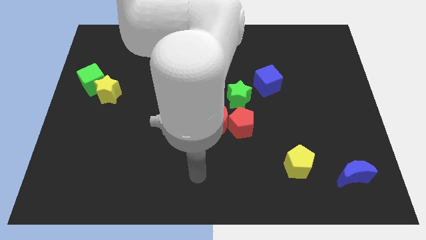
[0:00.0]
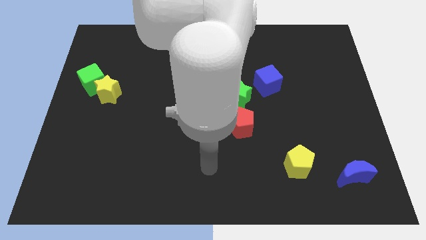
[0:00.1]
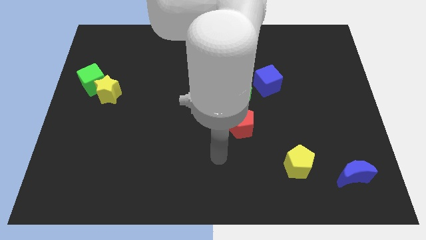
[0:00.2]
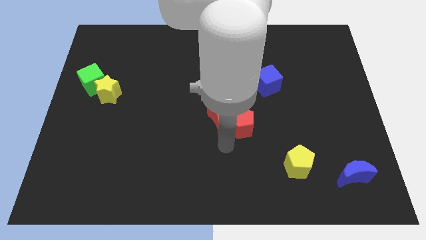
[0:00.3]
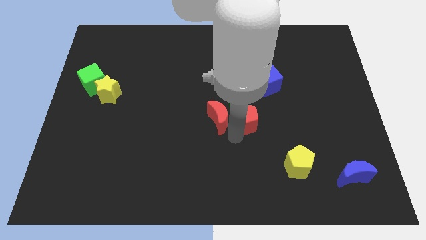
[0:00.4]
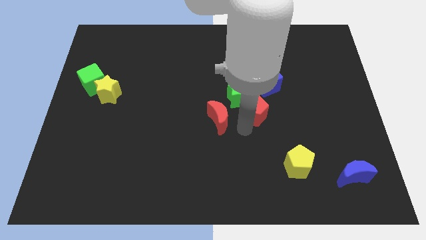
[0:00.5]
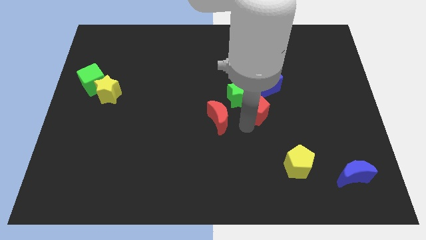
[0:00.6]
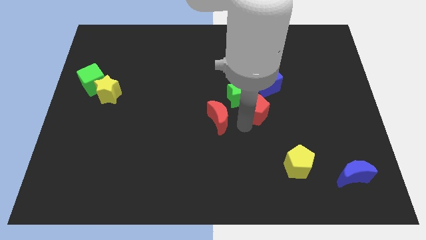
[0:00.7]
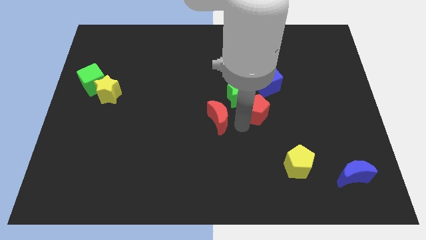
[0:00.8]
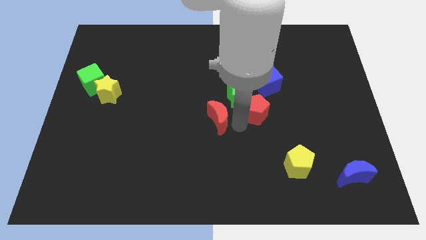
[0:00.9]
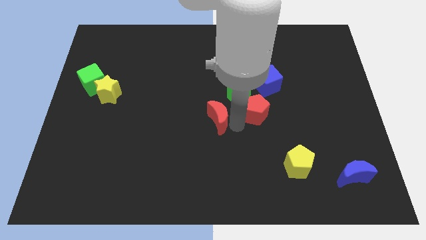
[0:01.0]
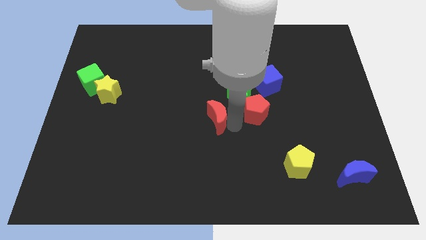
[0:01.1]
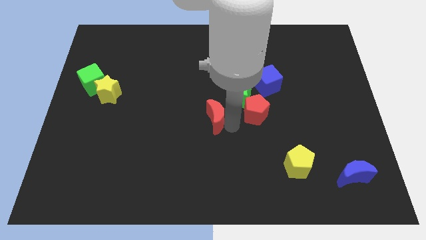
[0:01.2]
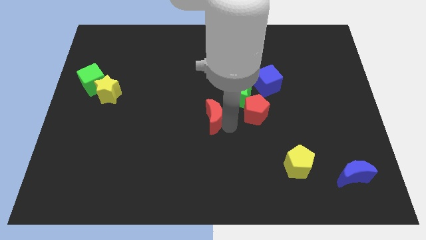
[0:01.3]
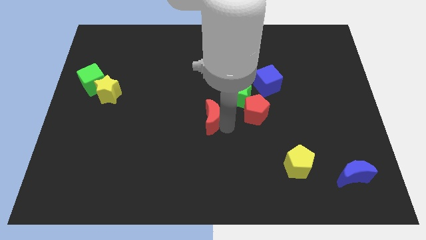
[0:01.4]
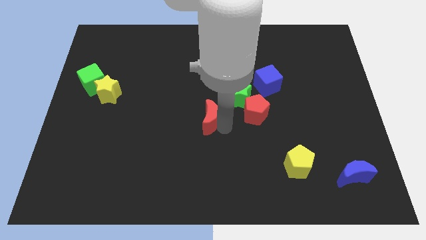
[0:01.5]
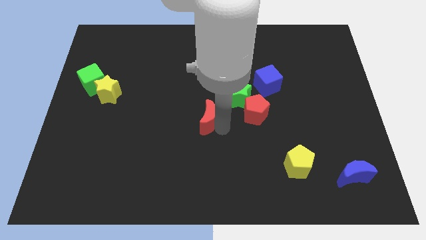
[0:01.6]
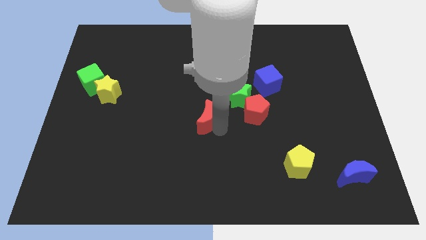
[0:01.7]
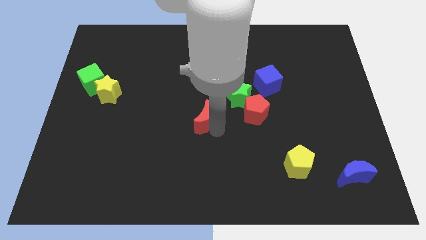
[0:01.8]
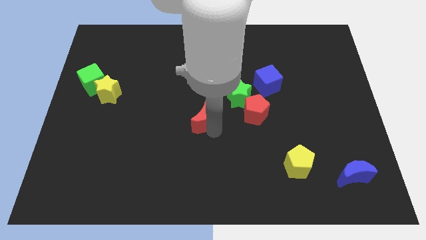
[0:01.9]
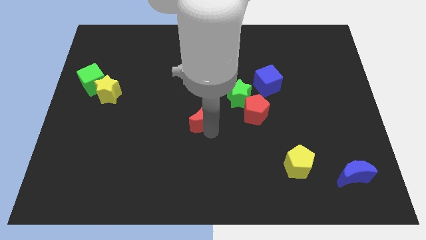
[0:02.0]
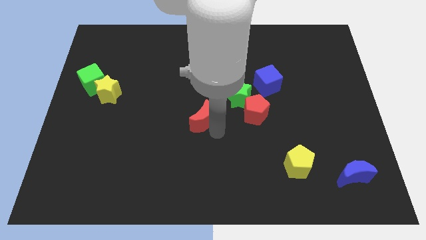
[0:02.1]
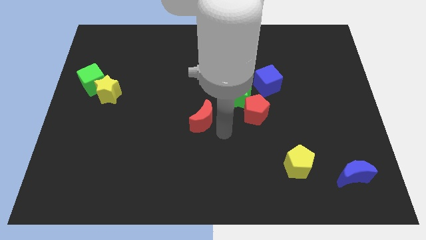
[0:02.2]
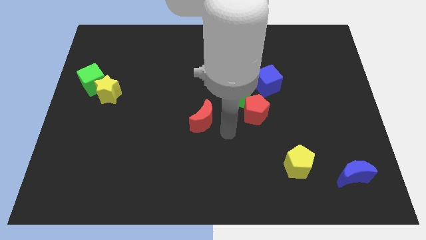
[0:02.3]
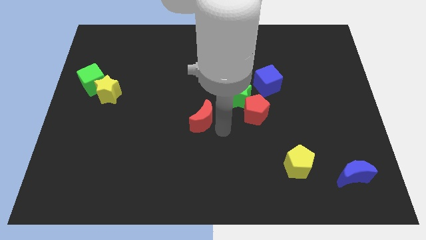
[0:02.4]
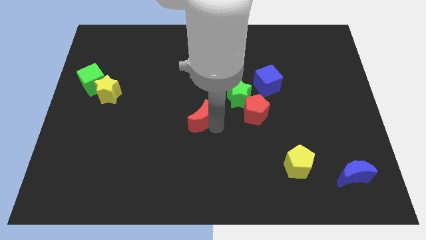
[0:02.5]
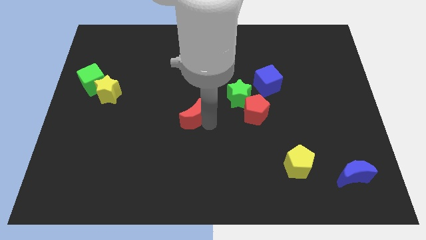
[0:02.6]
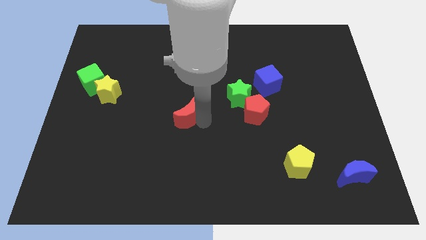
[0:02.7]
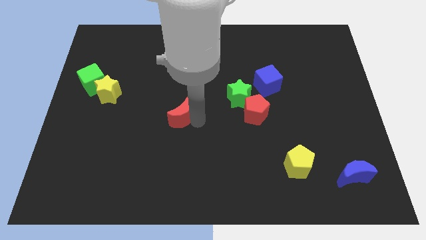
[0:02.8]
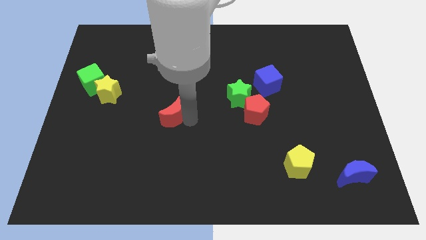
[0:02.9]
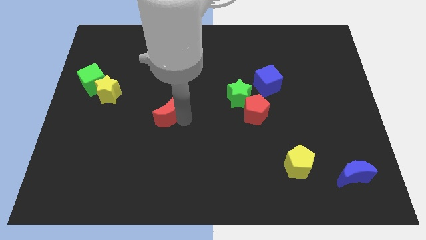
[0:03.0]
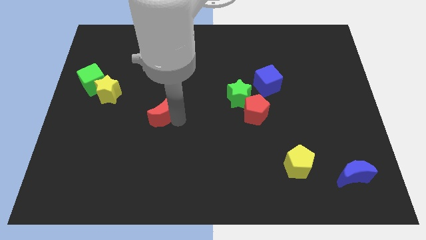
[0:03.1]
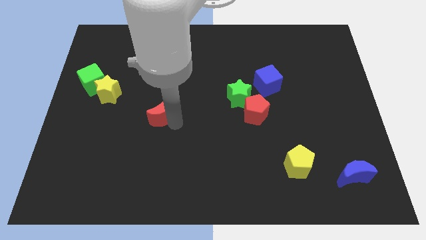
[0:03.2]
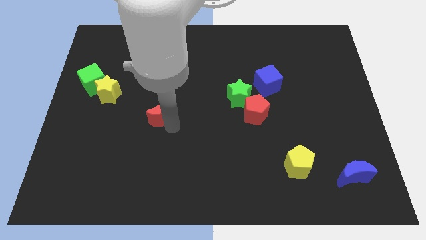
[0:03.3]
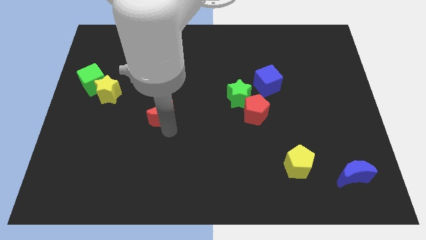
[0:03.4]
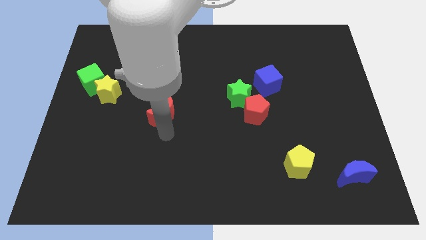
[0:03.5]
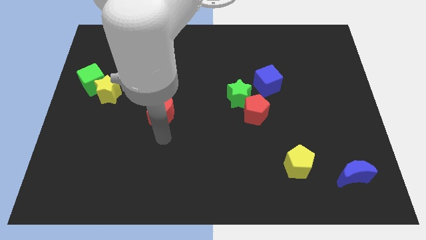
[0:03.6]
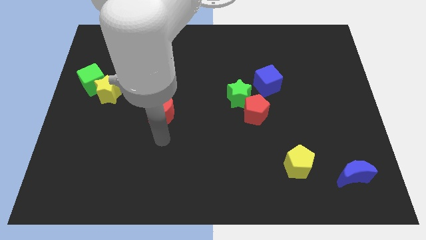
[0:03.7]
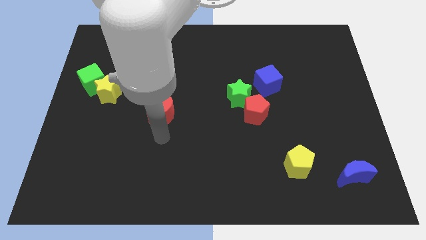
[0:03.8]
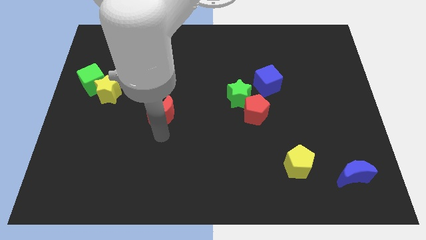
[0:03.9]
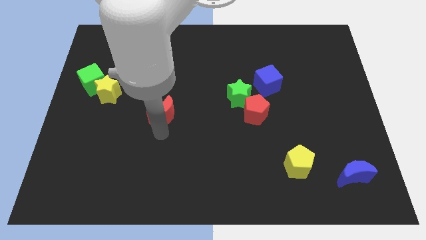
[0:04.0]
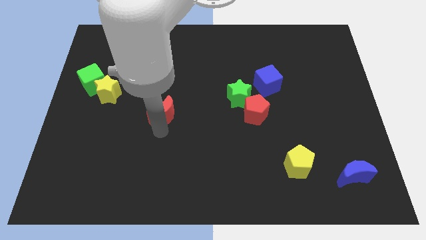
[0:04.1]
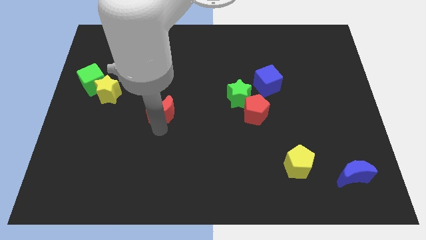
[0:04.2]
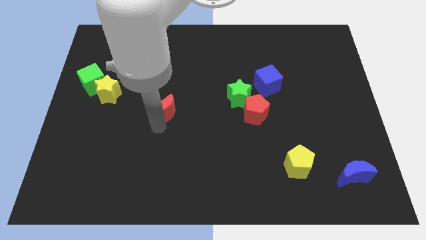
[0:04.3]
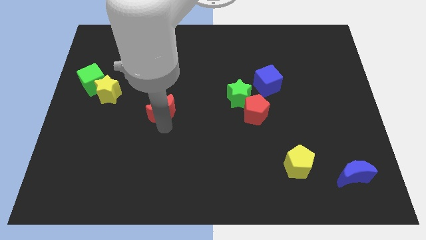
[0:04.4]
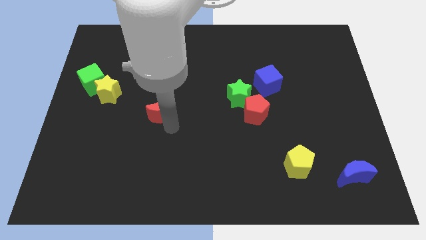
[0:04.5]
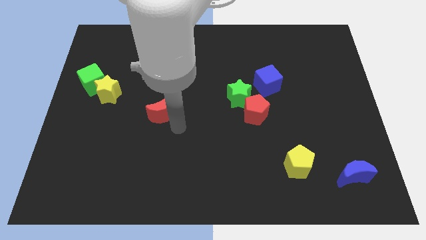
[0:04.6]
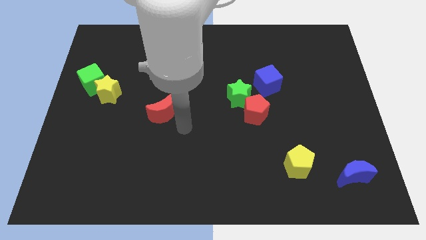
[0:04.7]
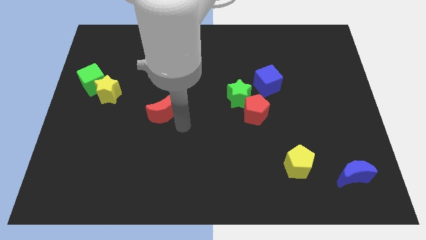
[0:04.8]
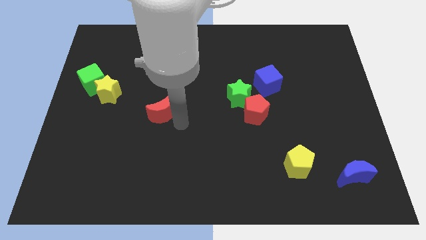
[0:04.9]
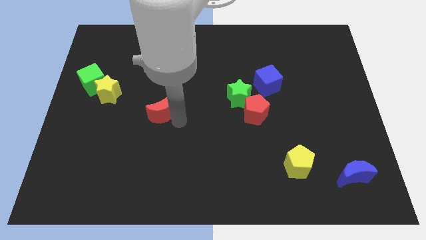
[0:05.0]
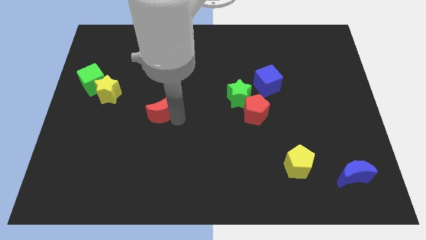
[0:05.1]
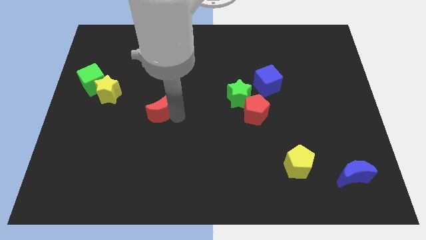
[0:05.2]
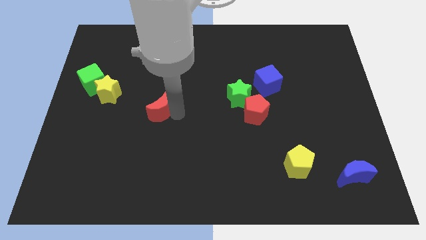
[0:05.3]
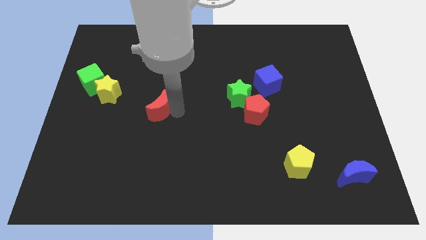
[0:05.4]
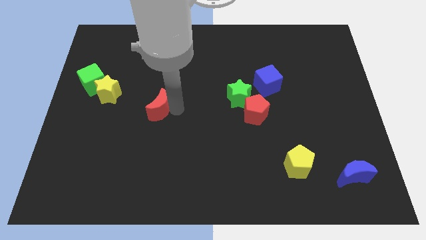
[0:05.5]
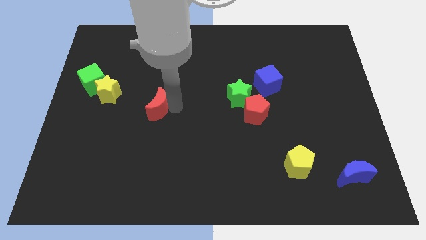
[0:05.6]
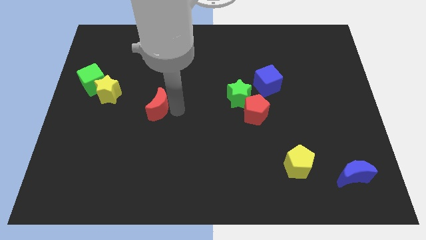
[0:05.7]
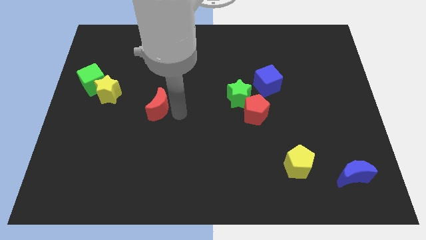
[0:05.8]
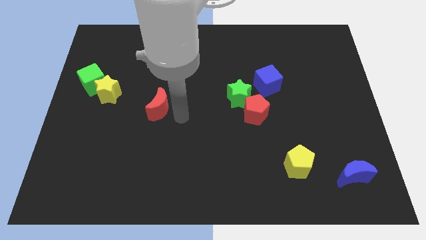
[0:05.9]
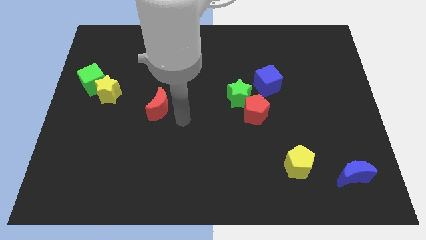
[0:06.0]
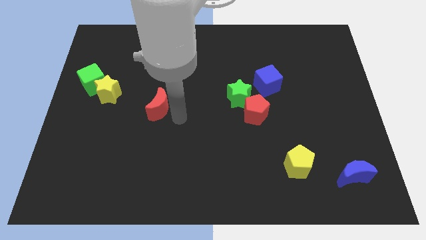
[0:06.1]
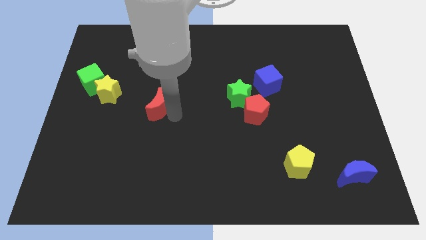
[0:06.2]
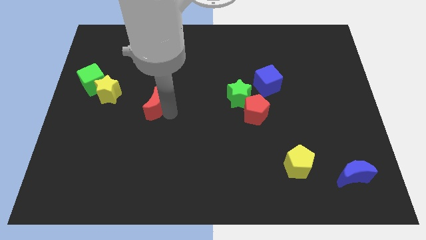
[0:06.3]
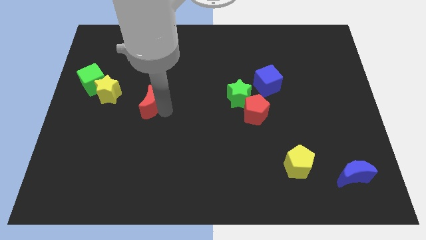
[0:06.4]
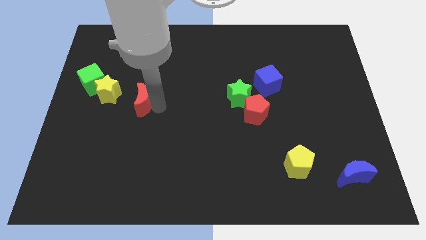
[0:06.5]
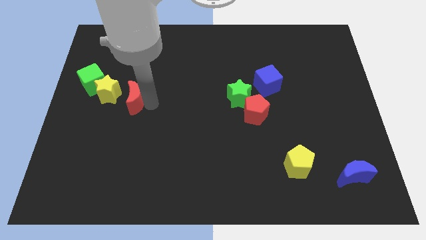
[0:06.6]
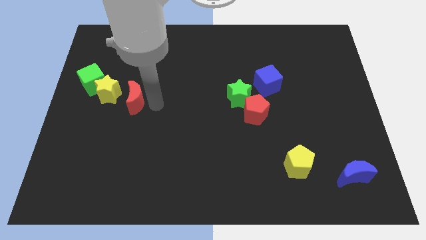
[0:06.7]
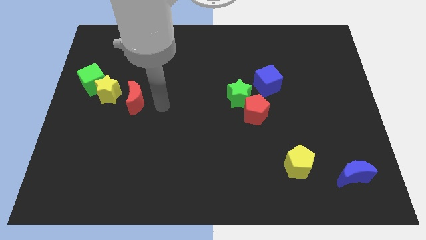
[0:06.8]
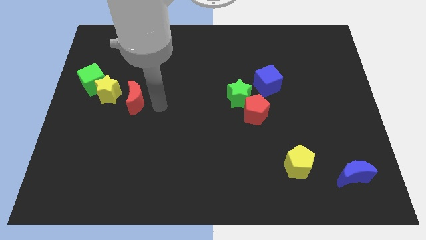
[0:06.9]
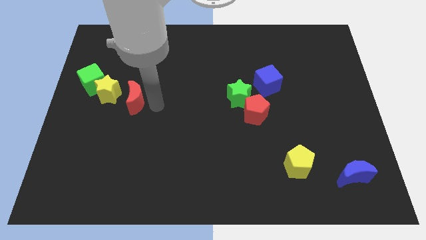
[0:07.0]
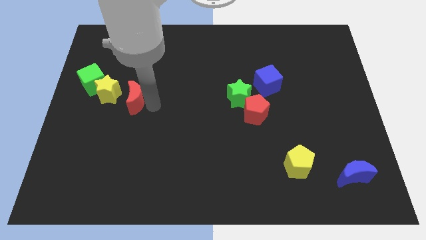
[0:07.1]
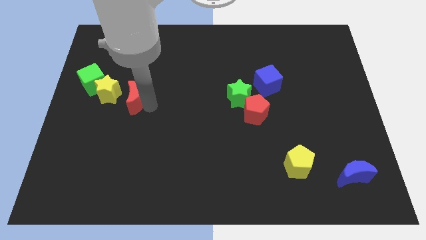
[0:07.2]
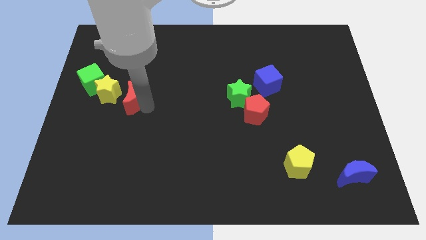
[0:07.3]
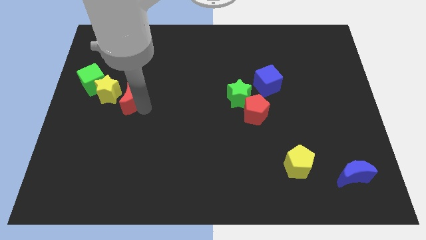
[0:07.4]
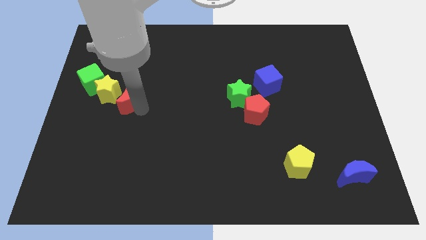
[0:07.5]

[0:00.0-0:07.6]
slide the red moon close to the yellow star
